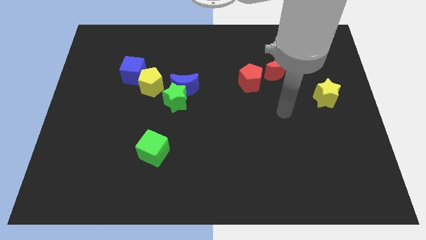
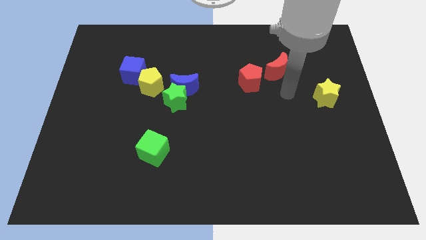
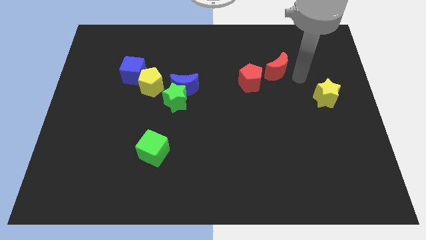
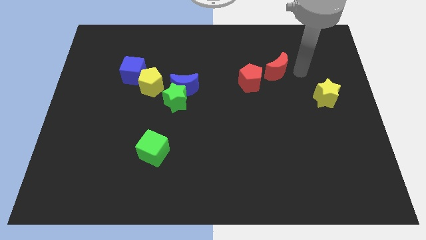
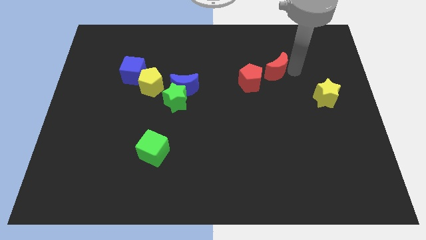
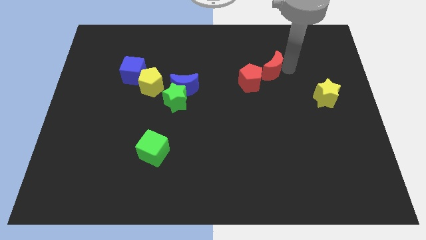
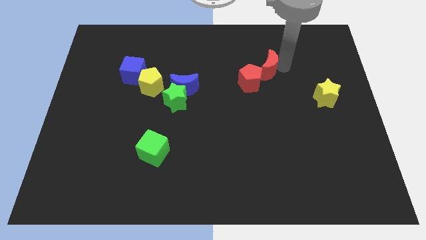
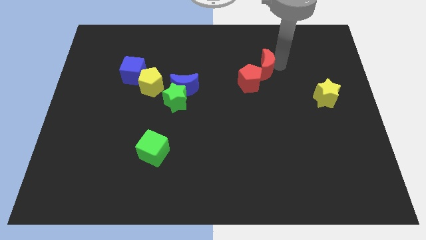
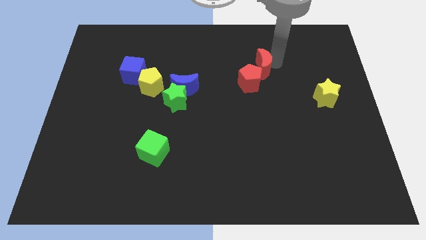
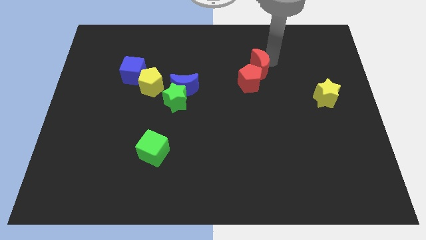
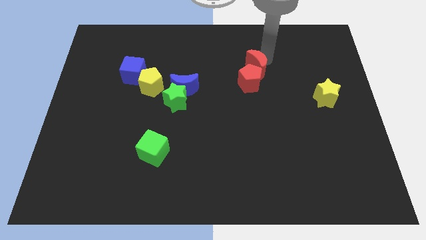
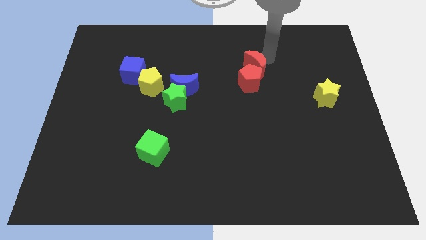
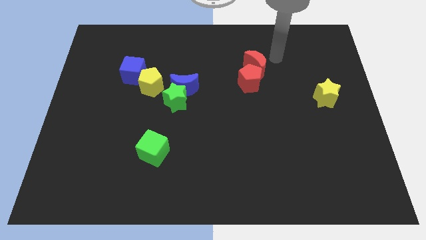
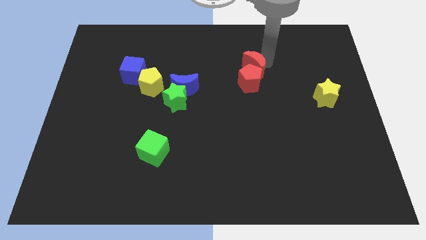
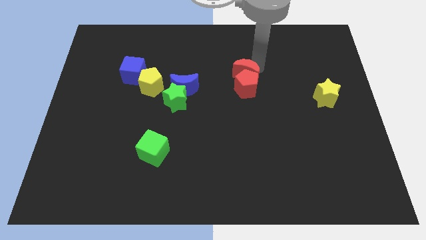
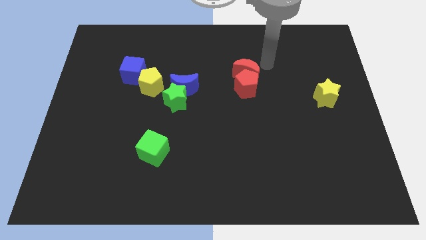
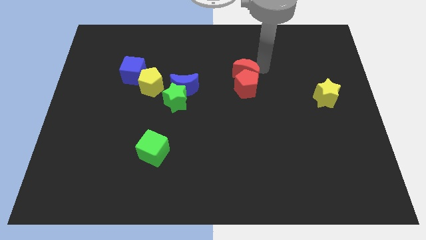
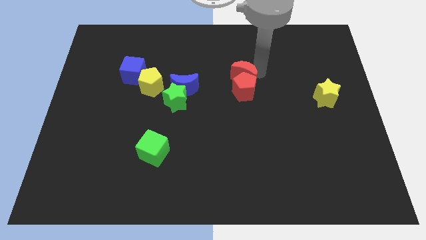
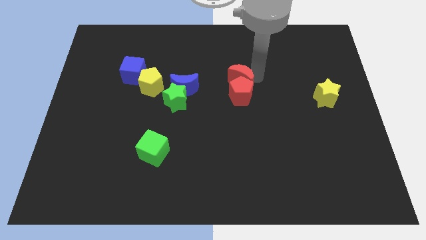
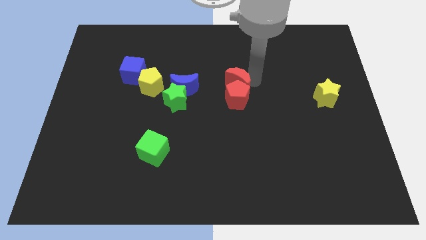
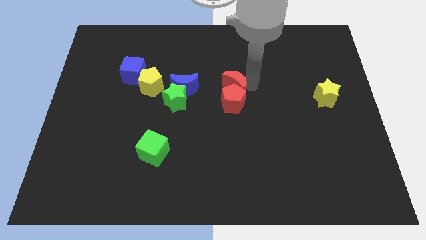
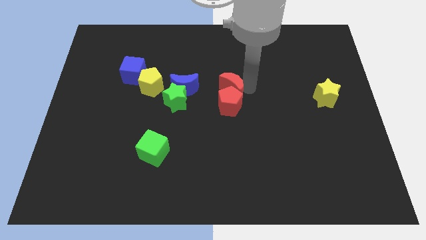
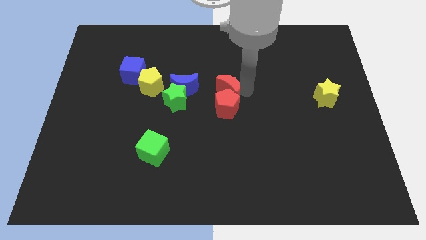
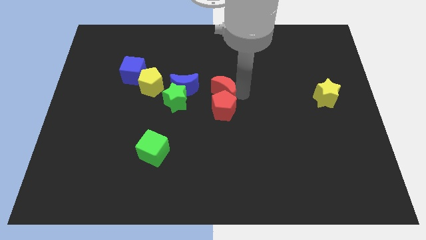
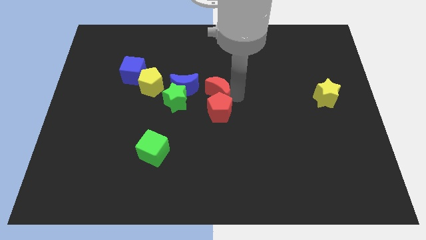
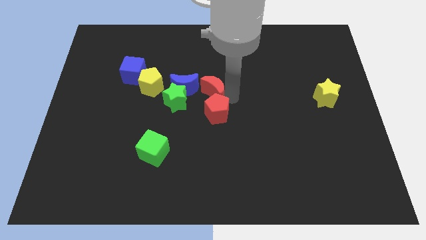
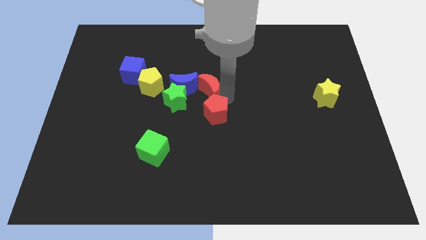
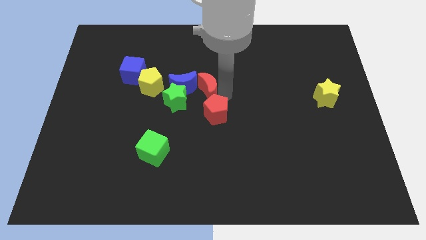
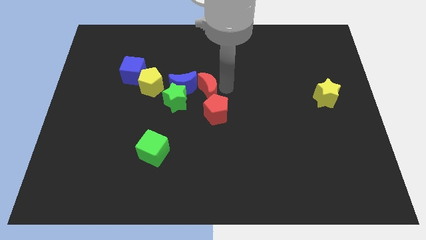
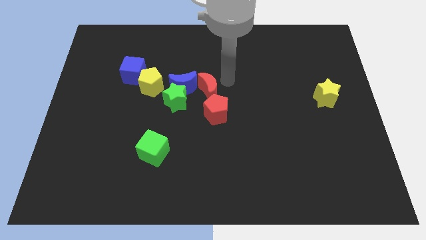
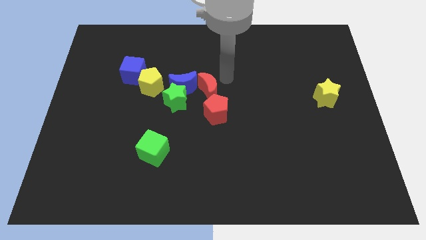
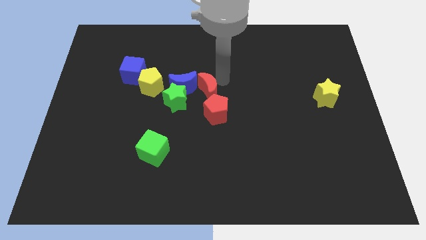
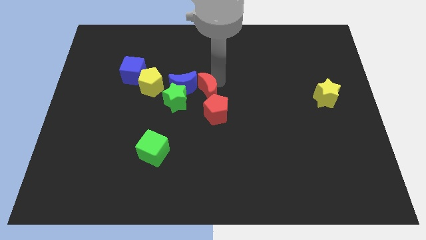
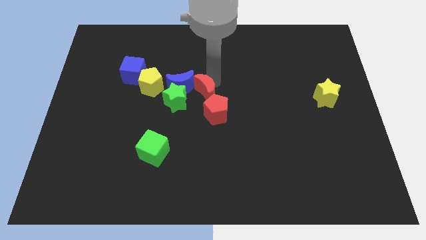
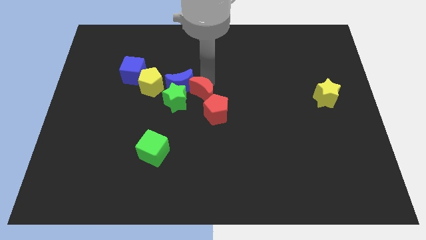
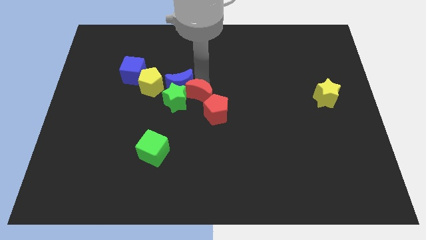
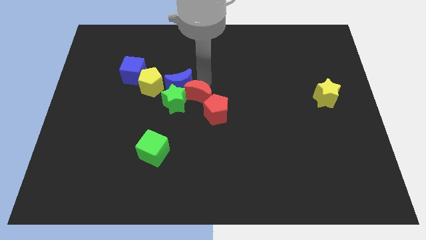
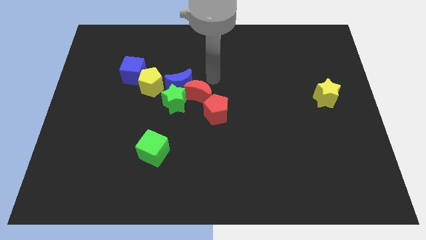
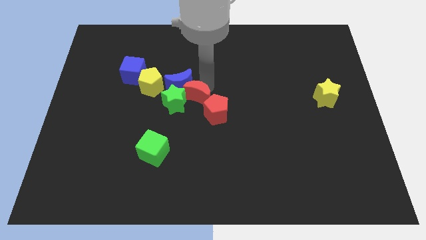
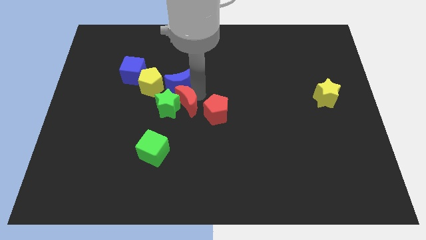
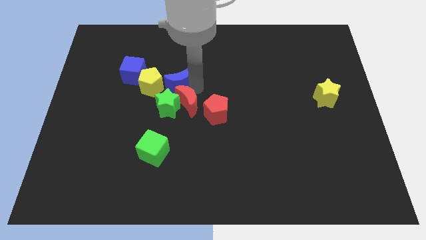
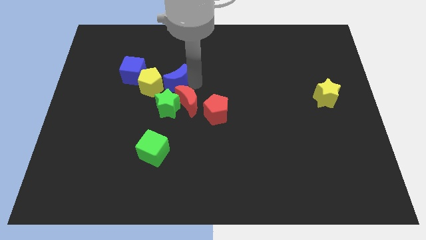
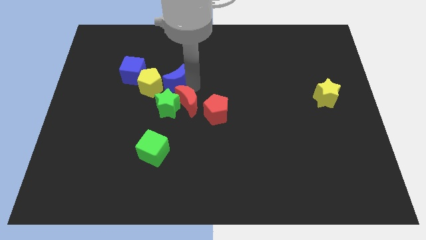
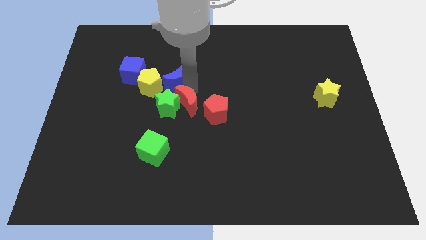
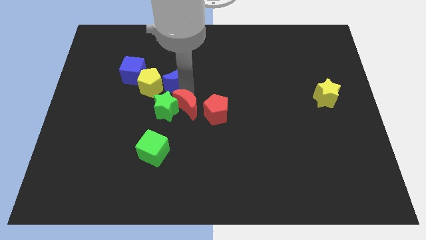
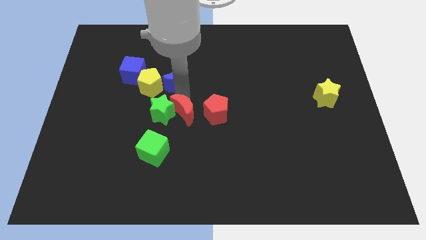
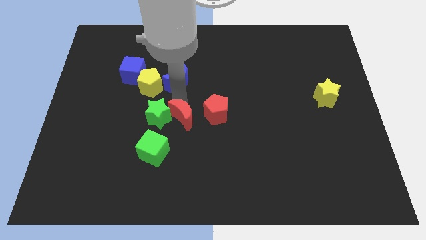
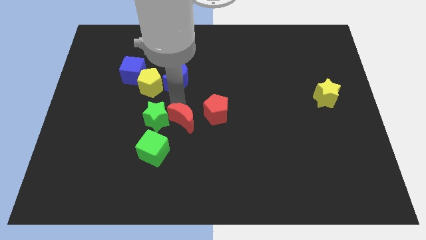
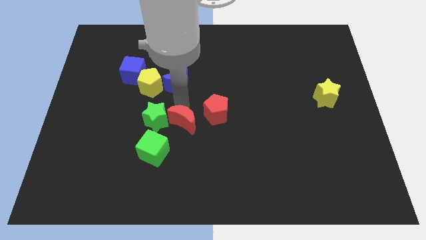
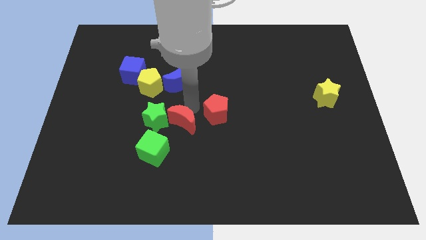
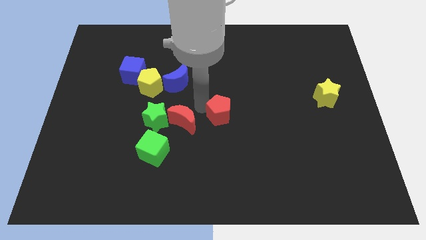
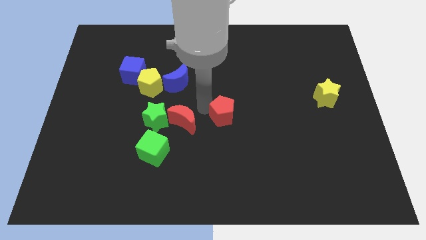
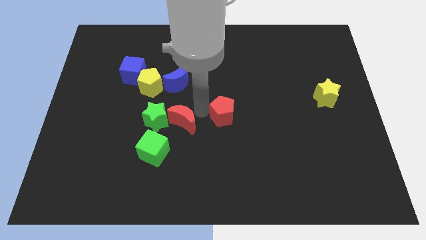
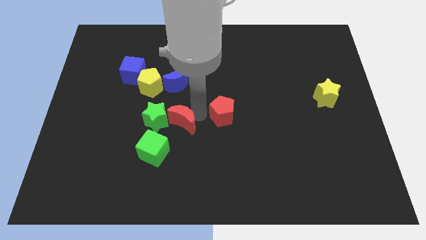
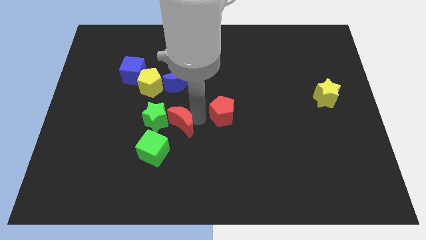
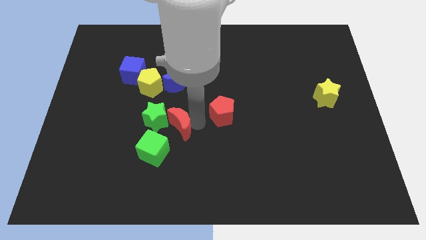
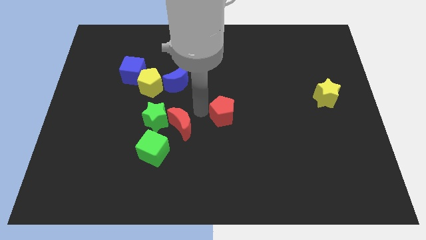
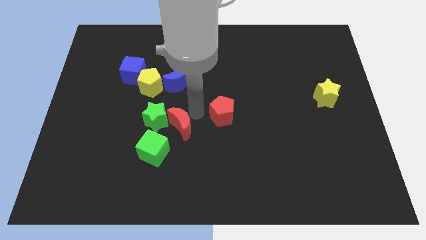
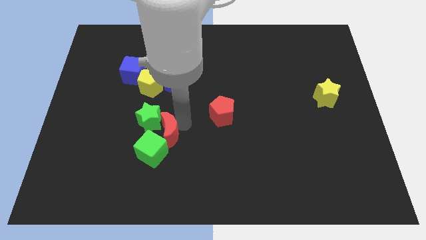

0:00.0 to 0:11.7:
slide the red moon close to the green cube
